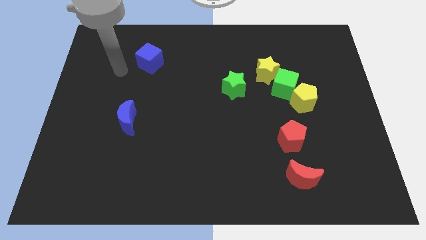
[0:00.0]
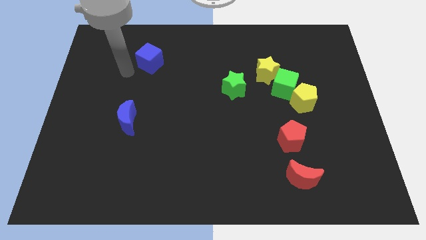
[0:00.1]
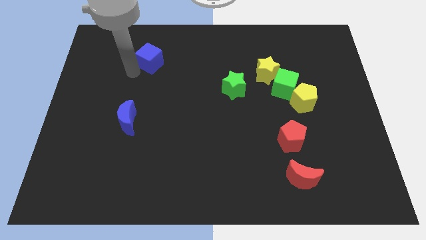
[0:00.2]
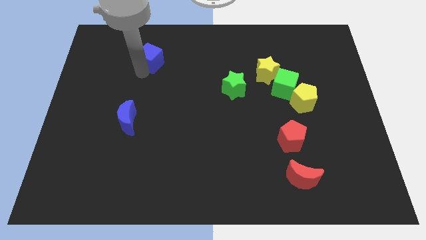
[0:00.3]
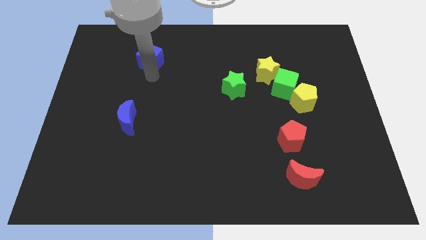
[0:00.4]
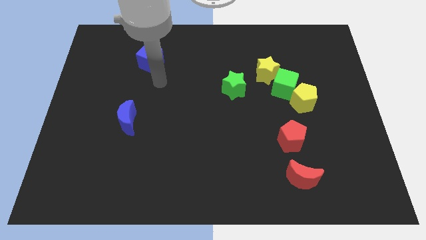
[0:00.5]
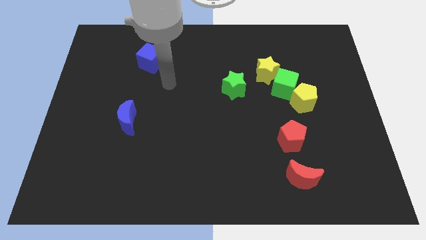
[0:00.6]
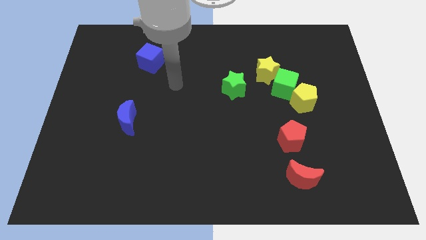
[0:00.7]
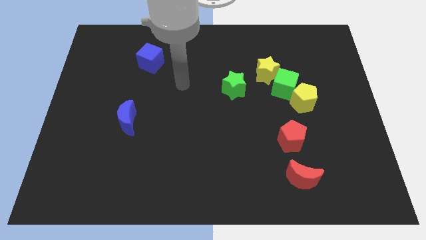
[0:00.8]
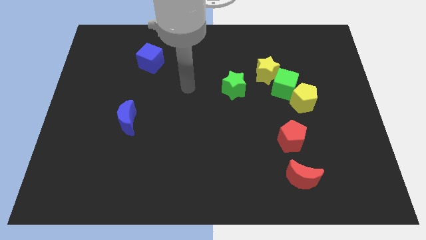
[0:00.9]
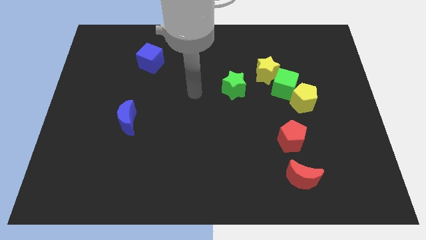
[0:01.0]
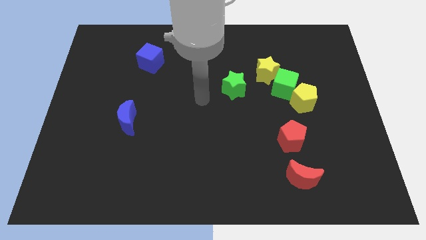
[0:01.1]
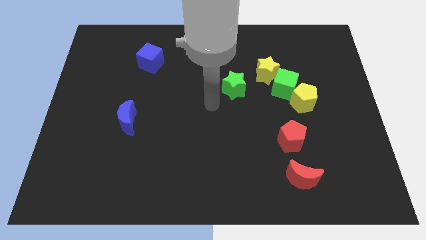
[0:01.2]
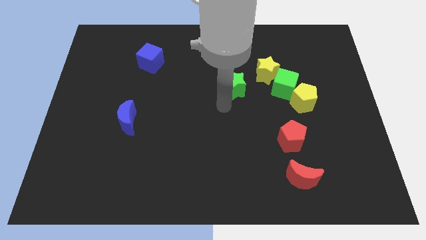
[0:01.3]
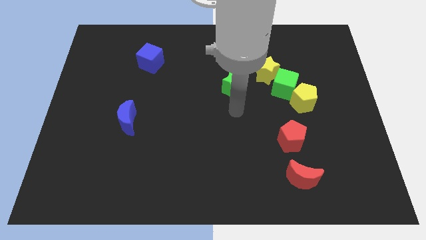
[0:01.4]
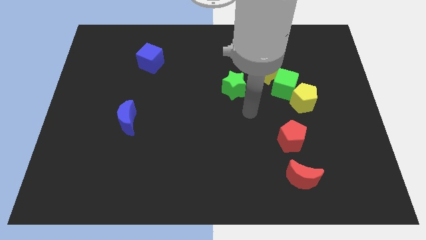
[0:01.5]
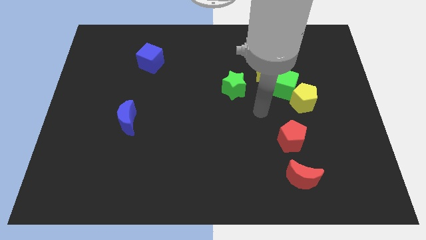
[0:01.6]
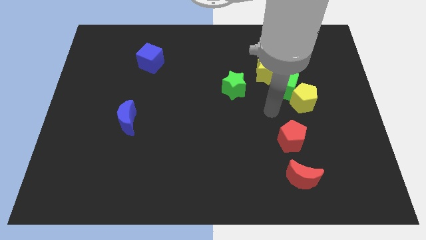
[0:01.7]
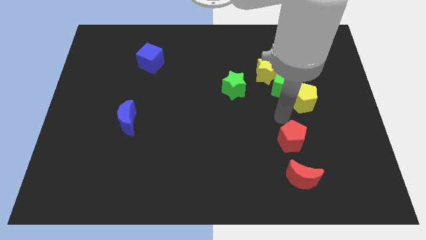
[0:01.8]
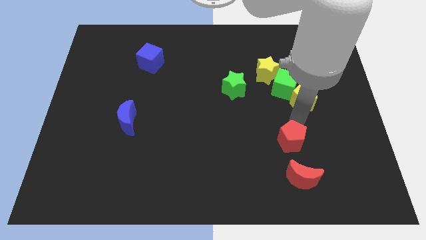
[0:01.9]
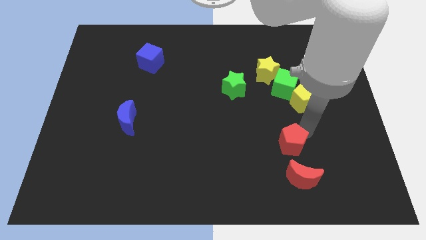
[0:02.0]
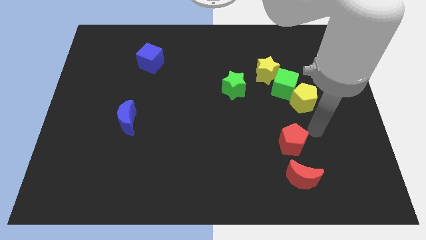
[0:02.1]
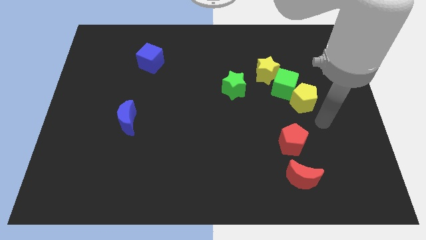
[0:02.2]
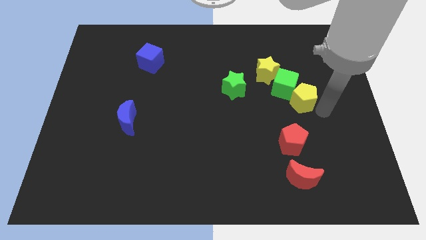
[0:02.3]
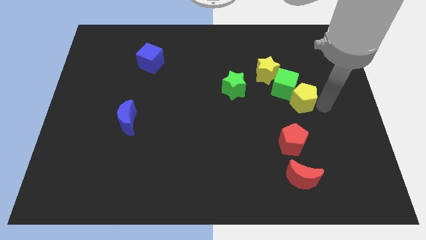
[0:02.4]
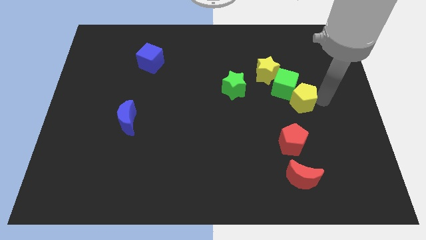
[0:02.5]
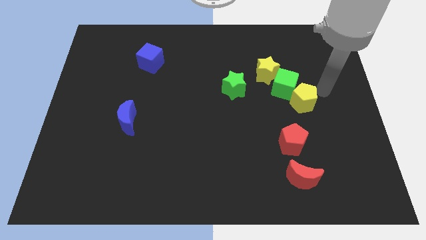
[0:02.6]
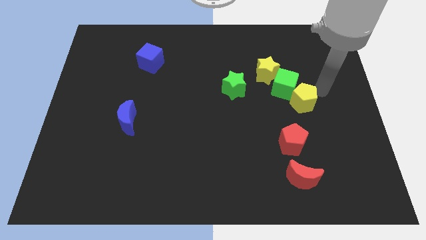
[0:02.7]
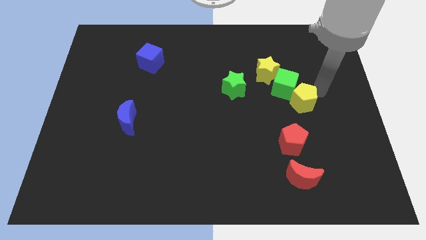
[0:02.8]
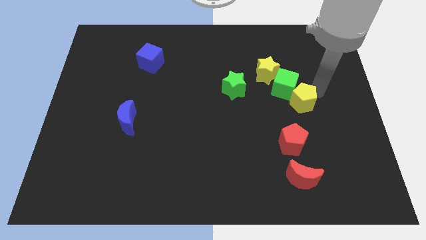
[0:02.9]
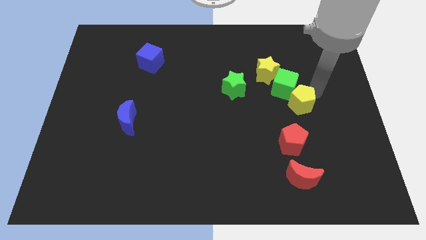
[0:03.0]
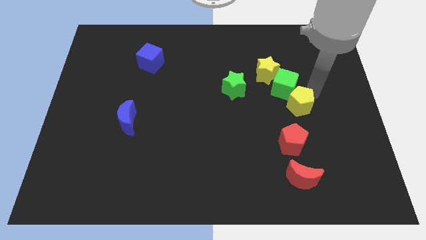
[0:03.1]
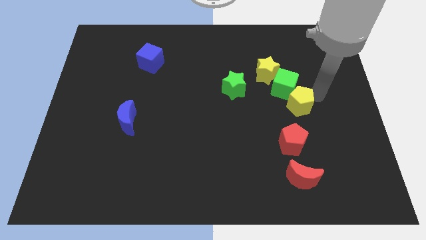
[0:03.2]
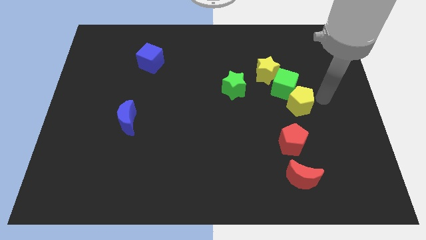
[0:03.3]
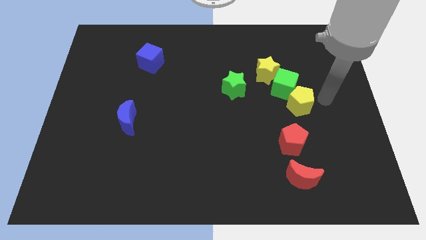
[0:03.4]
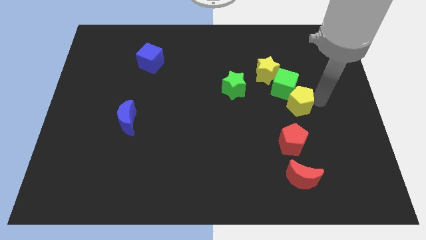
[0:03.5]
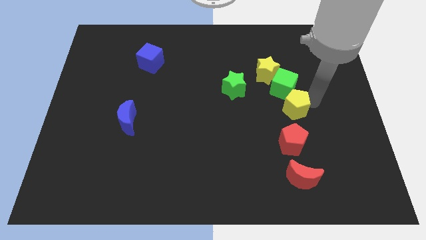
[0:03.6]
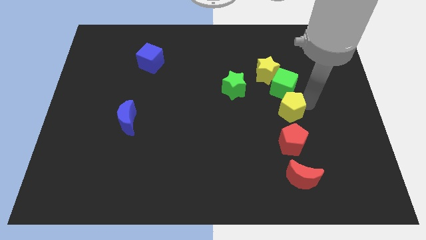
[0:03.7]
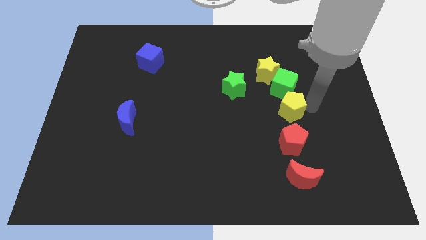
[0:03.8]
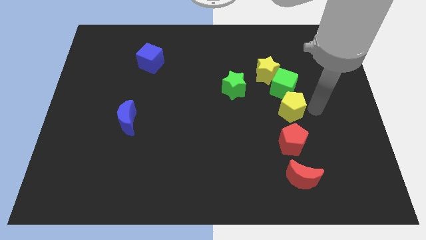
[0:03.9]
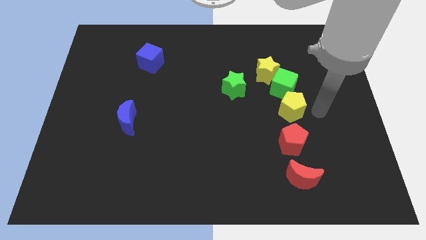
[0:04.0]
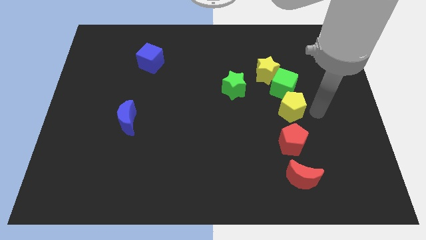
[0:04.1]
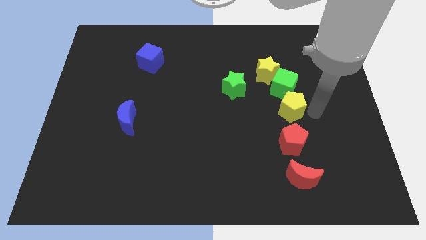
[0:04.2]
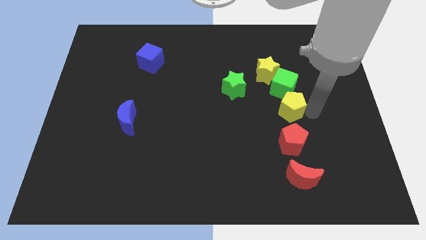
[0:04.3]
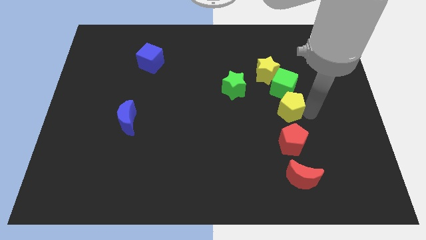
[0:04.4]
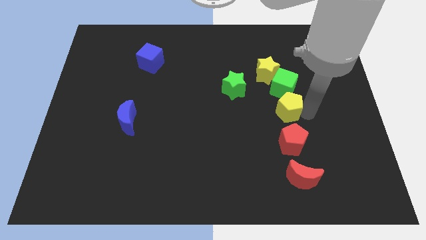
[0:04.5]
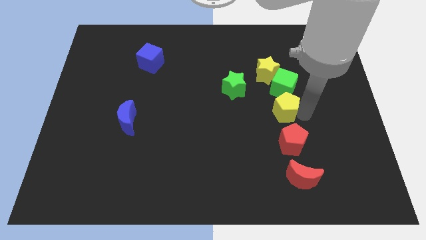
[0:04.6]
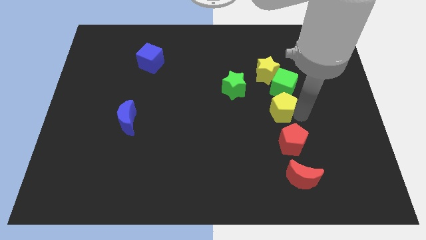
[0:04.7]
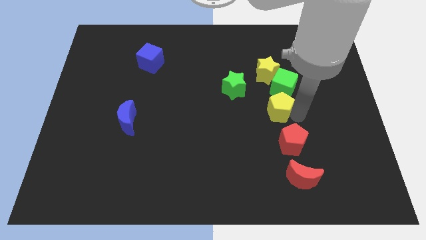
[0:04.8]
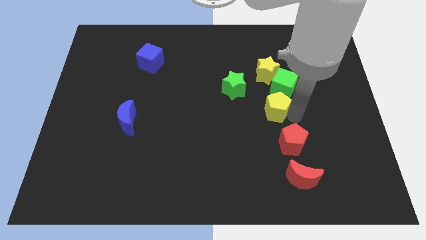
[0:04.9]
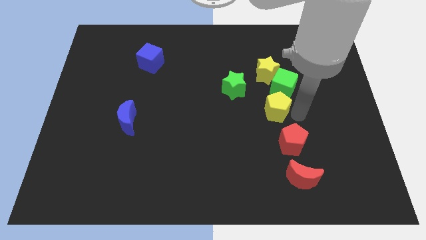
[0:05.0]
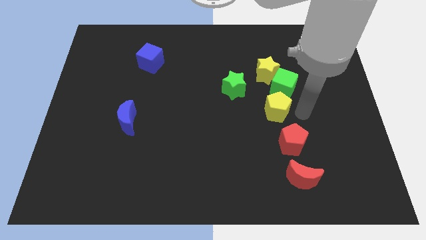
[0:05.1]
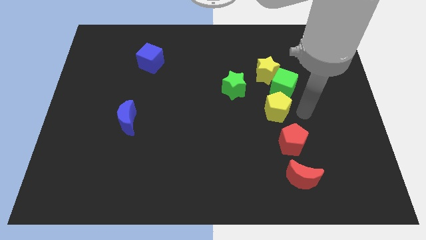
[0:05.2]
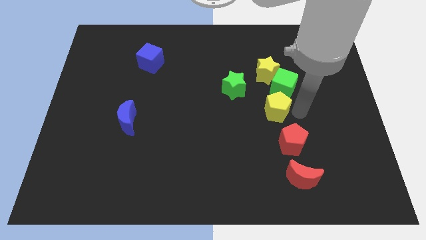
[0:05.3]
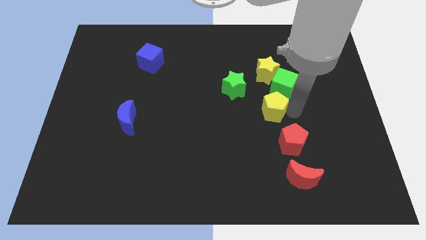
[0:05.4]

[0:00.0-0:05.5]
slightly move the yellow pentagon to the left

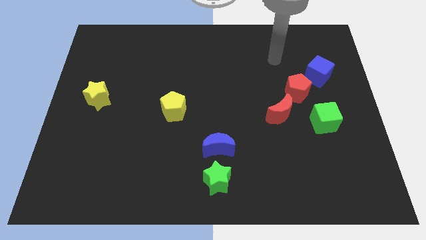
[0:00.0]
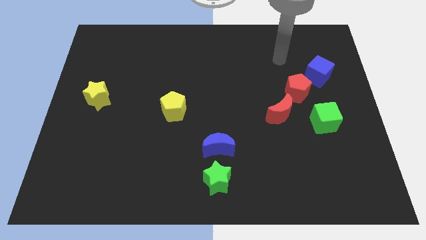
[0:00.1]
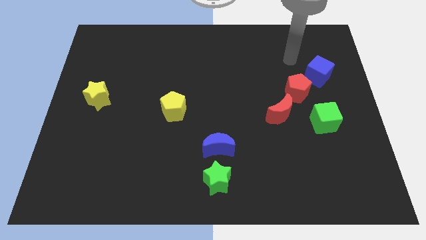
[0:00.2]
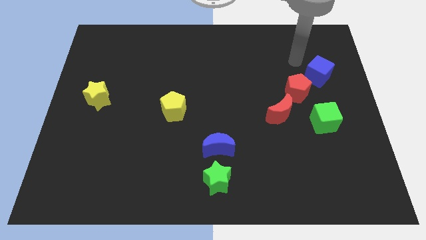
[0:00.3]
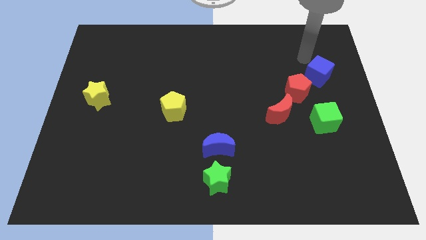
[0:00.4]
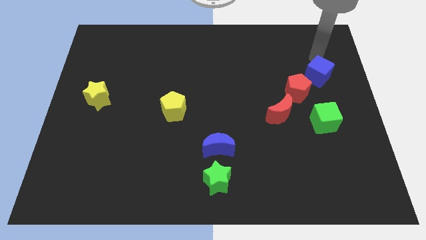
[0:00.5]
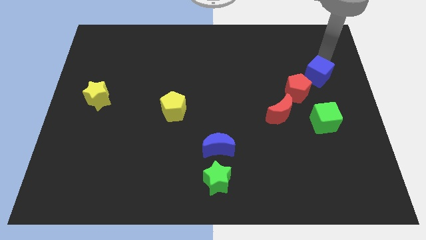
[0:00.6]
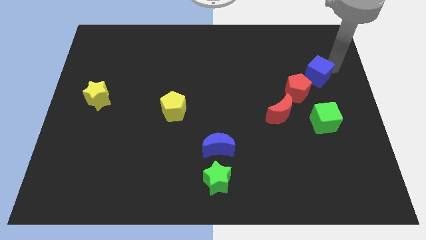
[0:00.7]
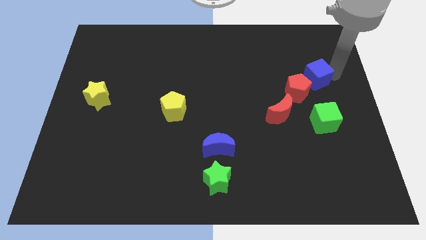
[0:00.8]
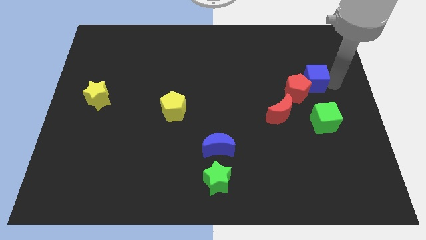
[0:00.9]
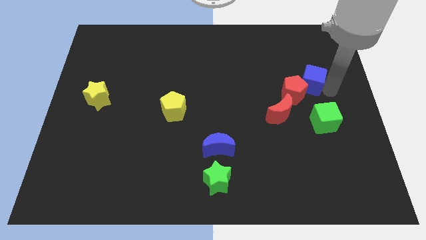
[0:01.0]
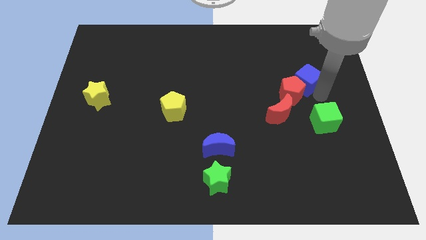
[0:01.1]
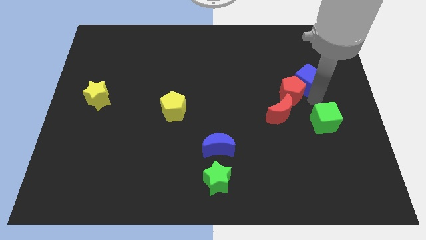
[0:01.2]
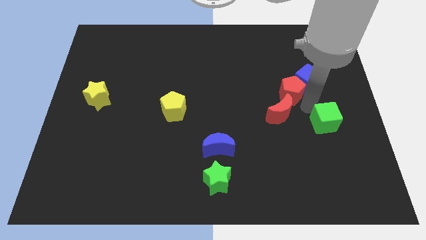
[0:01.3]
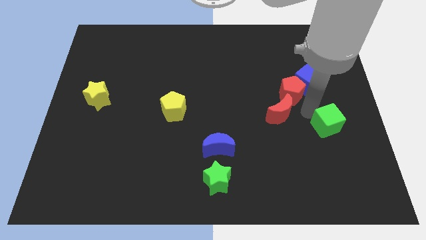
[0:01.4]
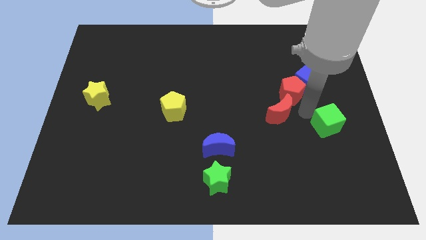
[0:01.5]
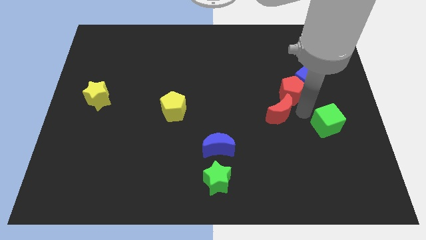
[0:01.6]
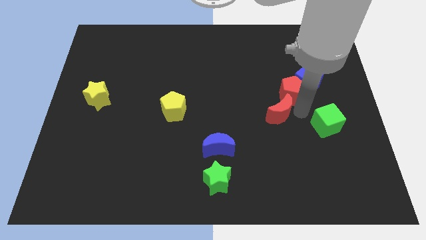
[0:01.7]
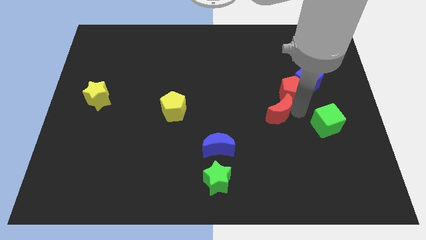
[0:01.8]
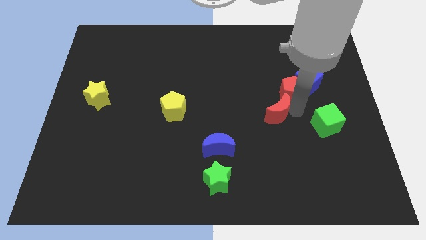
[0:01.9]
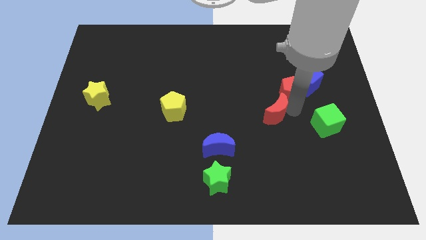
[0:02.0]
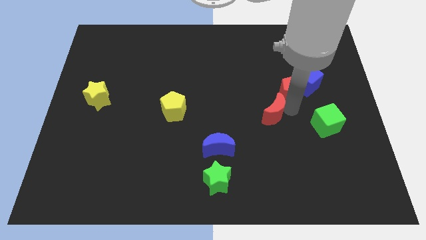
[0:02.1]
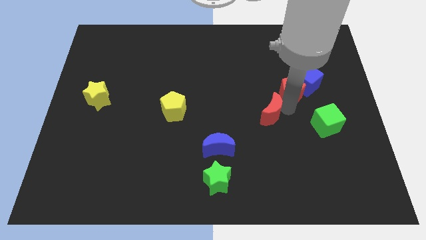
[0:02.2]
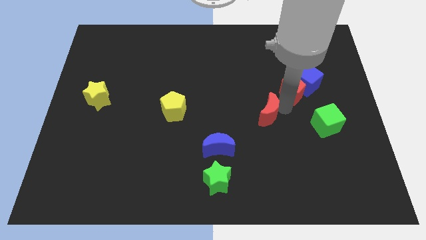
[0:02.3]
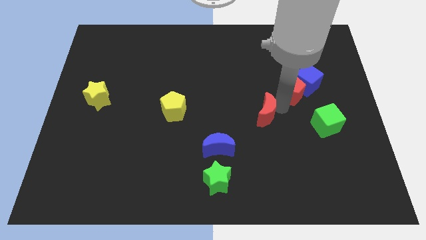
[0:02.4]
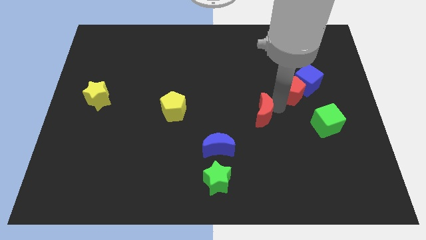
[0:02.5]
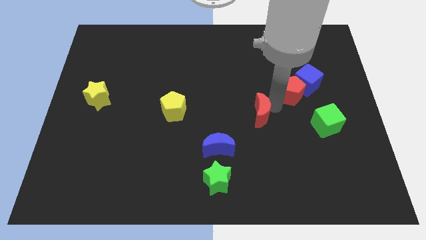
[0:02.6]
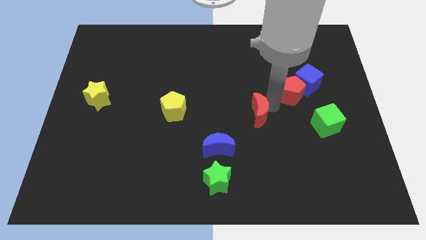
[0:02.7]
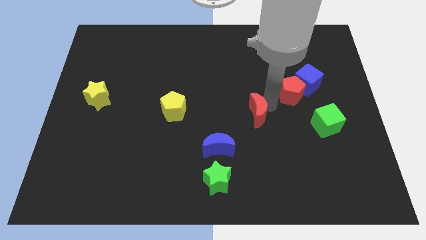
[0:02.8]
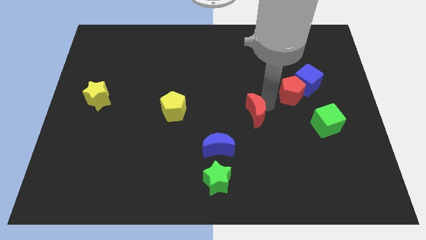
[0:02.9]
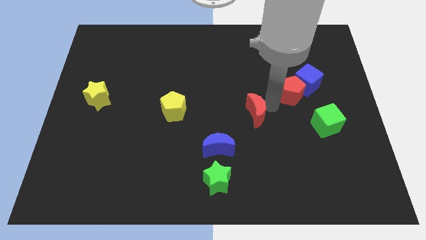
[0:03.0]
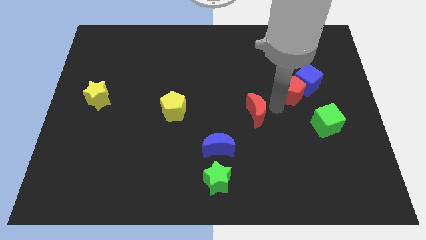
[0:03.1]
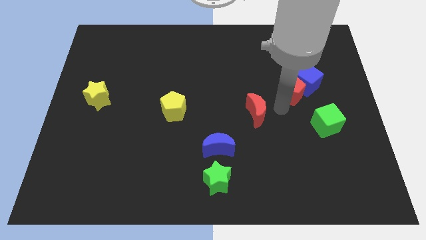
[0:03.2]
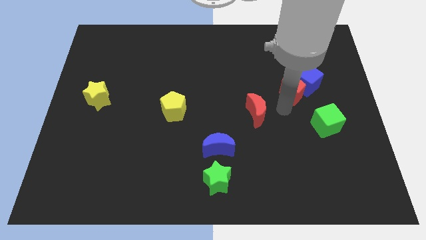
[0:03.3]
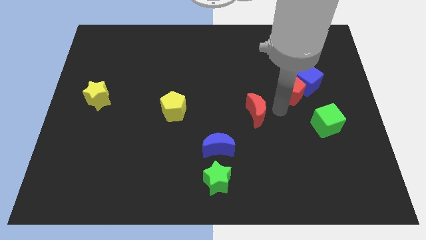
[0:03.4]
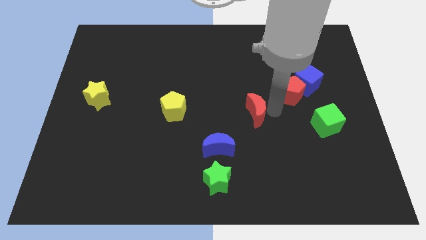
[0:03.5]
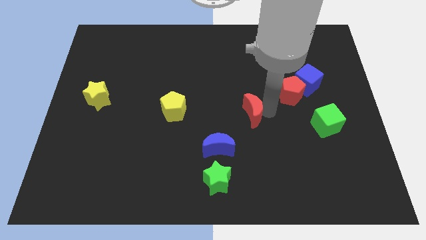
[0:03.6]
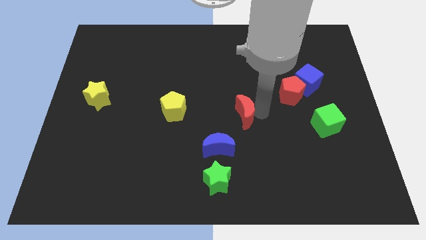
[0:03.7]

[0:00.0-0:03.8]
push the red moon a bit left
